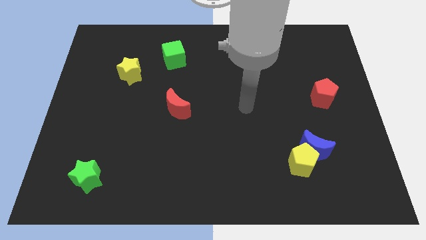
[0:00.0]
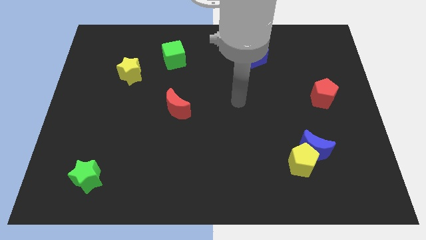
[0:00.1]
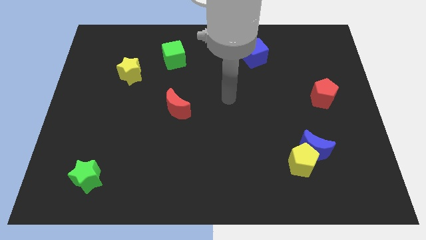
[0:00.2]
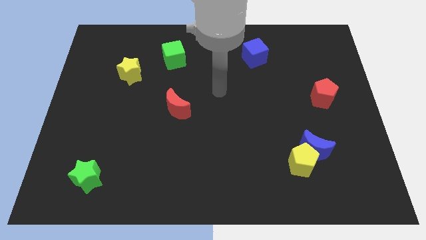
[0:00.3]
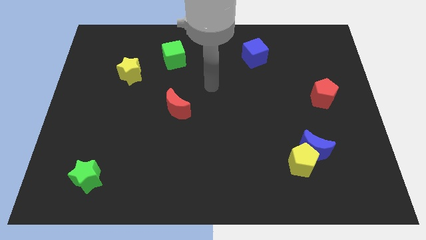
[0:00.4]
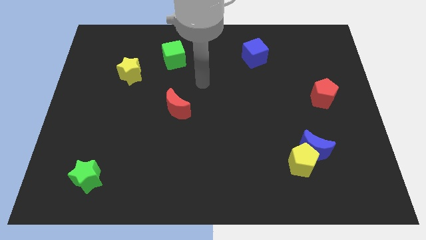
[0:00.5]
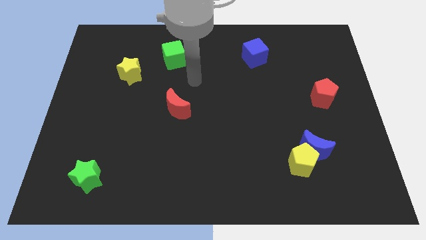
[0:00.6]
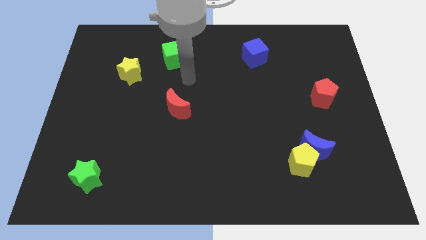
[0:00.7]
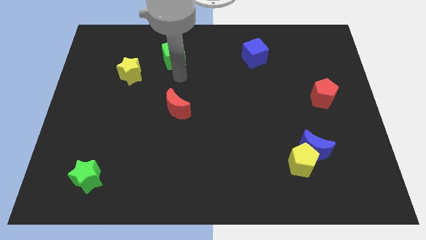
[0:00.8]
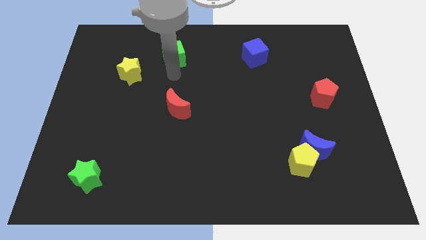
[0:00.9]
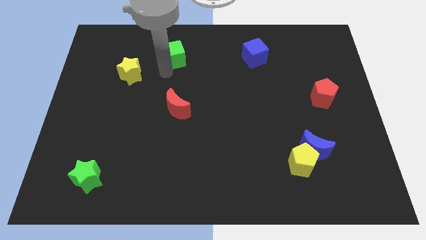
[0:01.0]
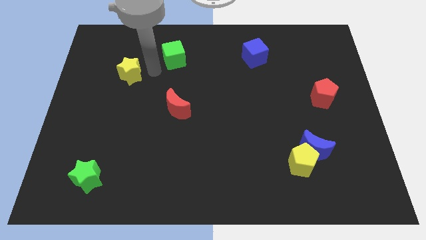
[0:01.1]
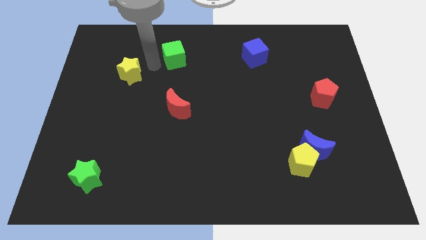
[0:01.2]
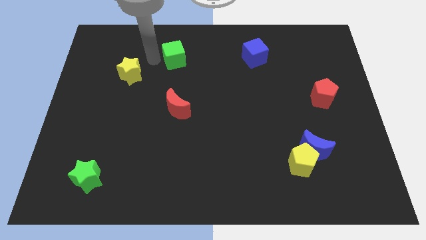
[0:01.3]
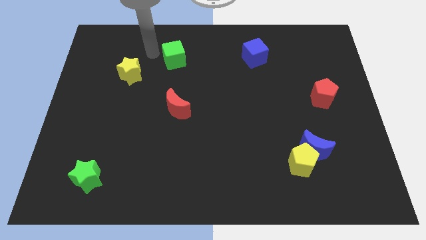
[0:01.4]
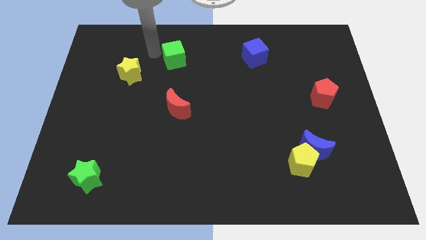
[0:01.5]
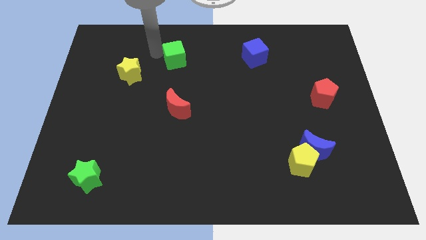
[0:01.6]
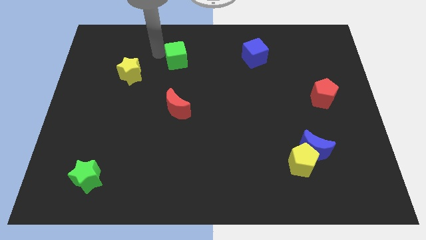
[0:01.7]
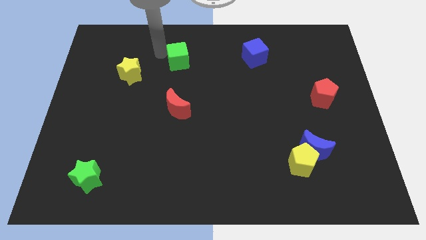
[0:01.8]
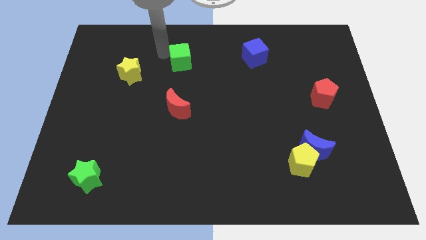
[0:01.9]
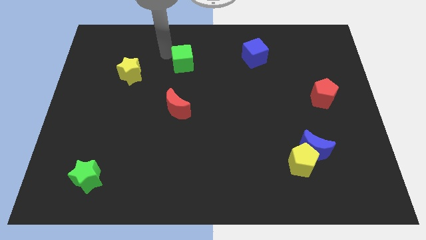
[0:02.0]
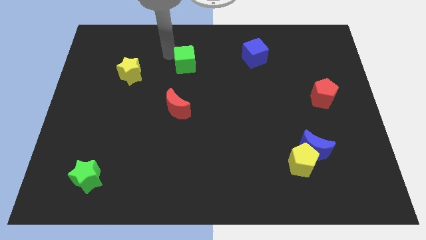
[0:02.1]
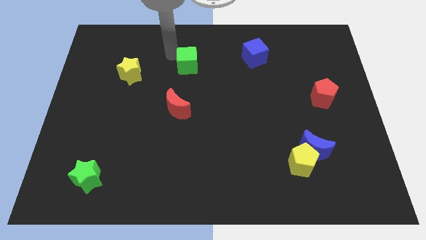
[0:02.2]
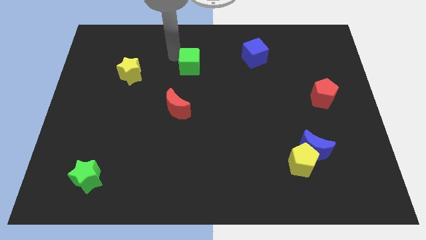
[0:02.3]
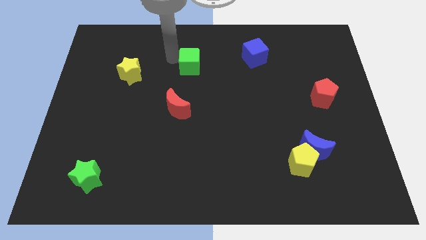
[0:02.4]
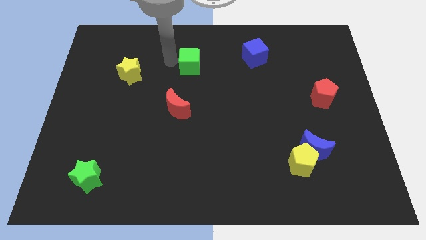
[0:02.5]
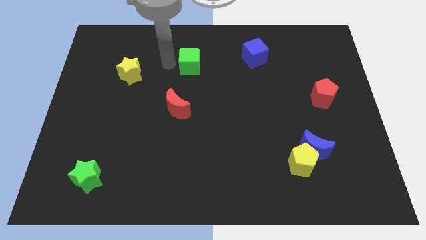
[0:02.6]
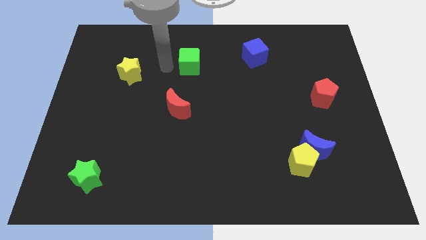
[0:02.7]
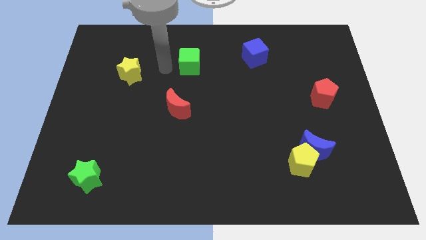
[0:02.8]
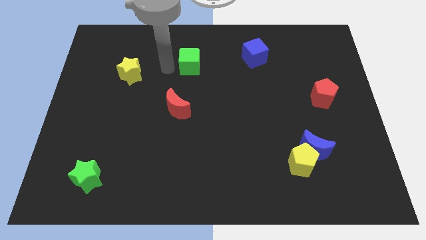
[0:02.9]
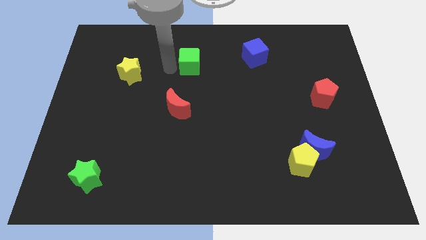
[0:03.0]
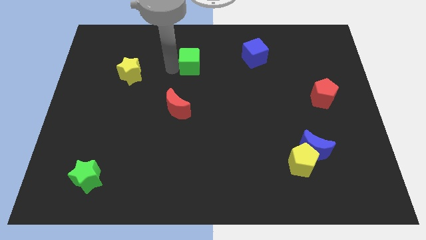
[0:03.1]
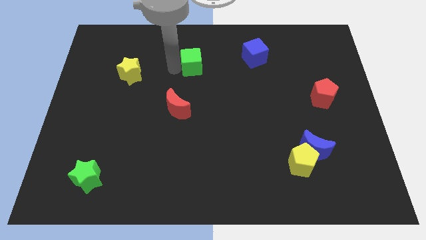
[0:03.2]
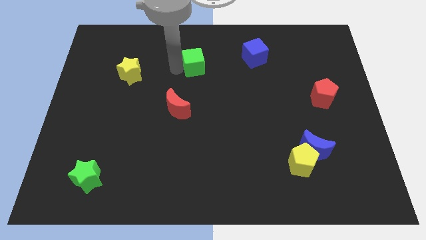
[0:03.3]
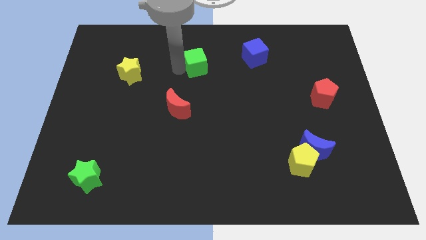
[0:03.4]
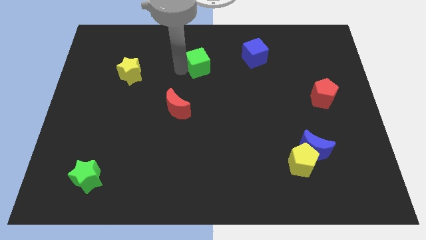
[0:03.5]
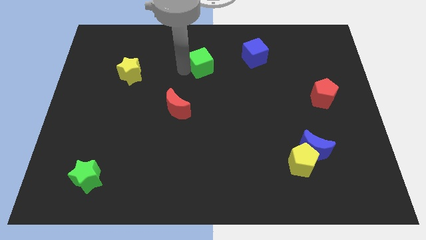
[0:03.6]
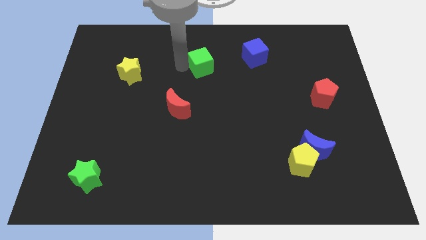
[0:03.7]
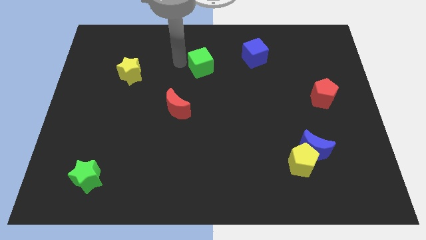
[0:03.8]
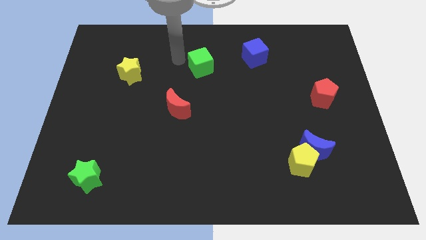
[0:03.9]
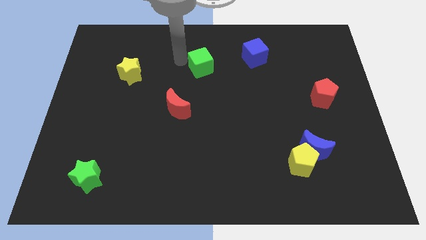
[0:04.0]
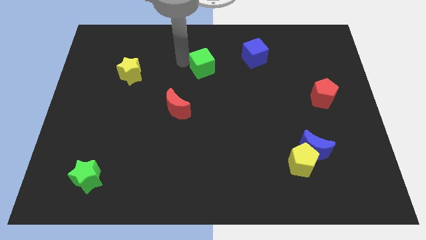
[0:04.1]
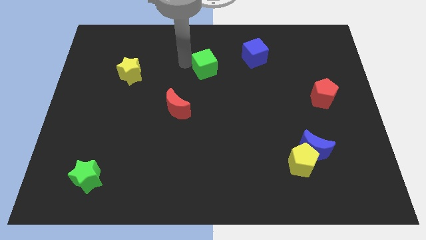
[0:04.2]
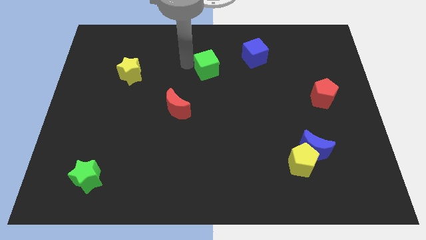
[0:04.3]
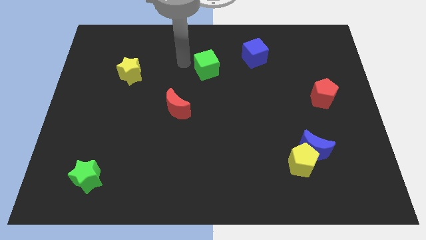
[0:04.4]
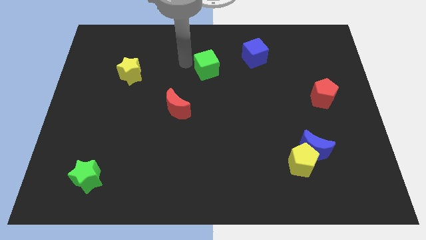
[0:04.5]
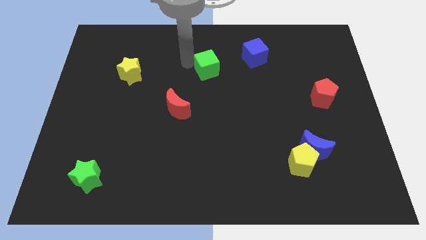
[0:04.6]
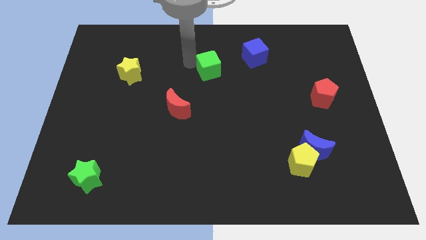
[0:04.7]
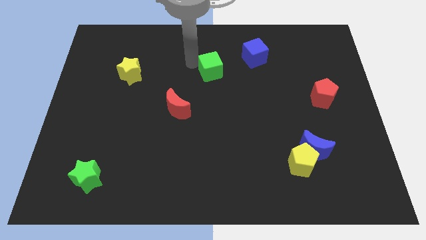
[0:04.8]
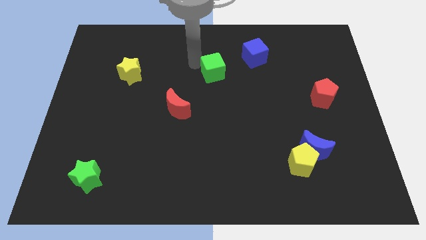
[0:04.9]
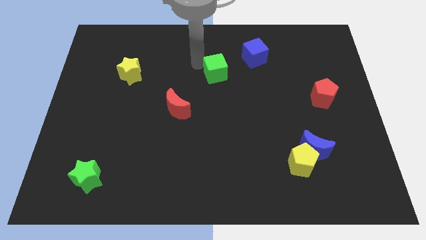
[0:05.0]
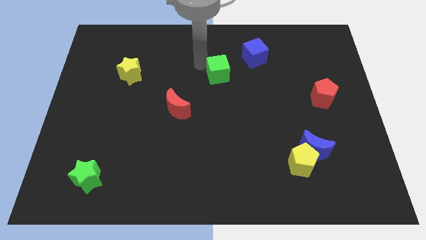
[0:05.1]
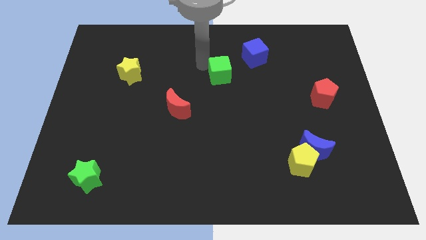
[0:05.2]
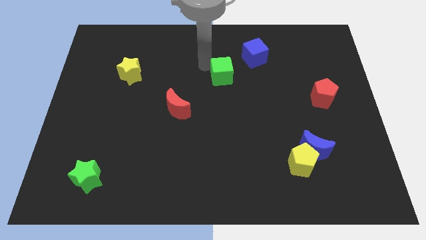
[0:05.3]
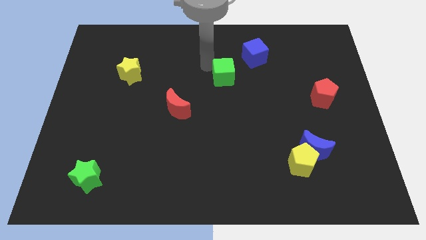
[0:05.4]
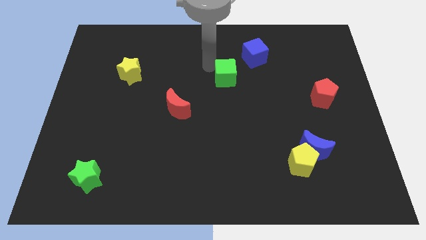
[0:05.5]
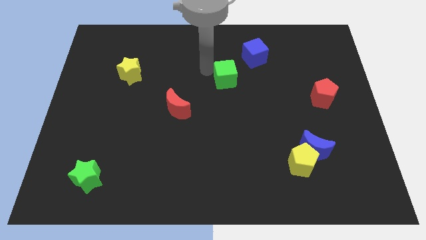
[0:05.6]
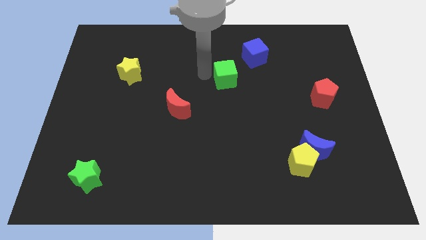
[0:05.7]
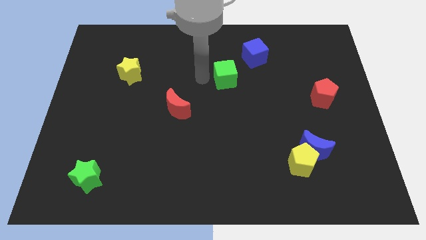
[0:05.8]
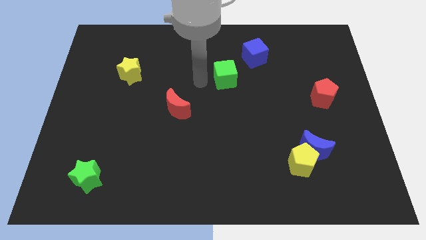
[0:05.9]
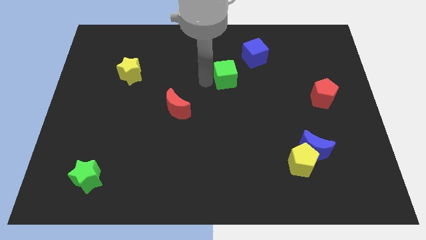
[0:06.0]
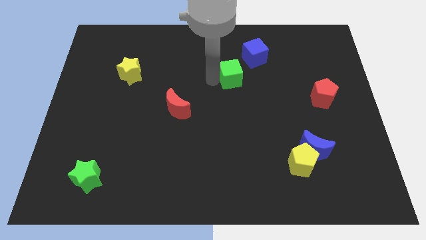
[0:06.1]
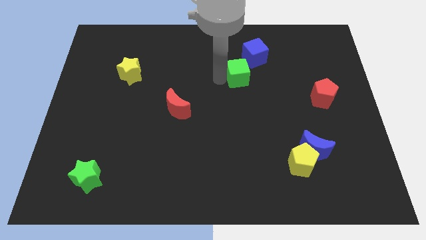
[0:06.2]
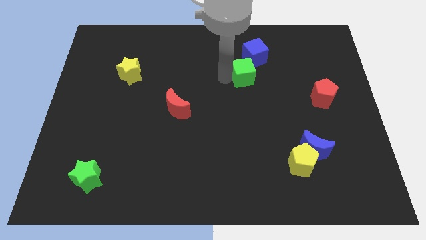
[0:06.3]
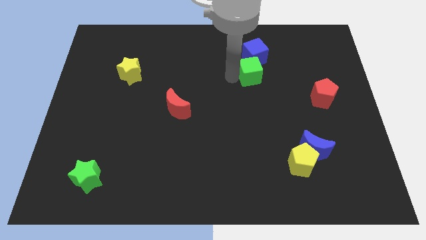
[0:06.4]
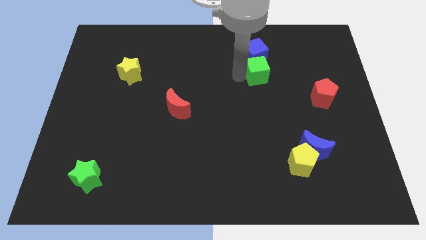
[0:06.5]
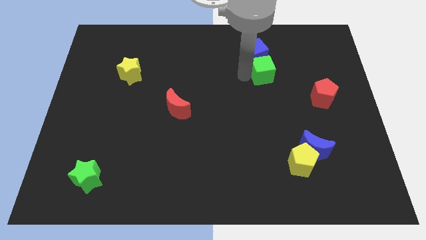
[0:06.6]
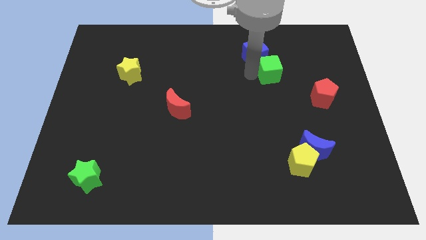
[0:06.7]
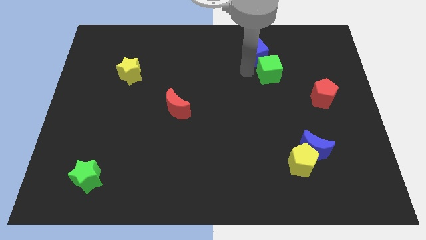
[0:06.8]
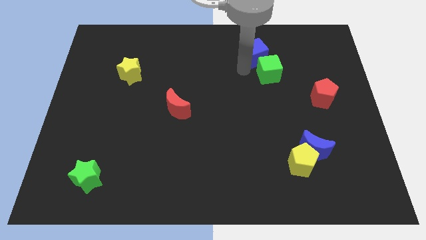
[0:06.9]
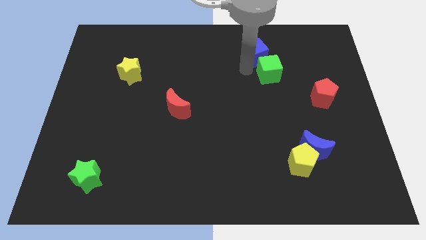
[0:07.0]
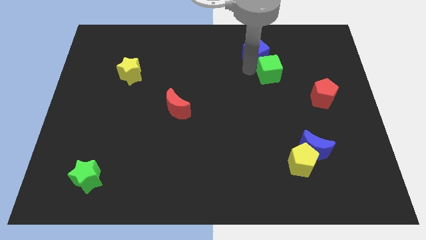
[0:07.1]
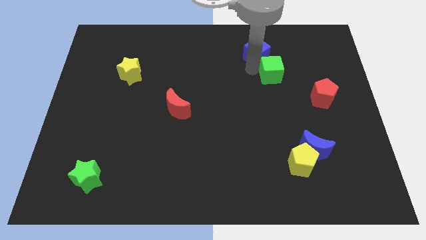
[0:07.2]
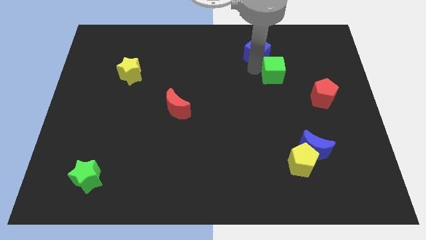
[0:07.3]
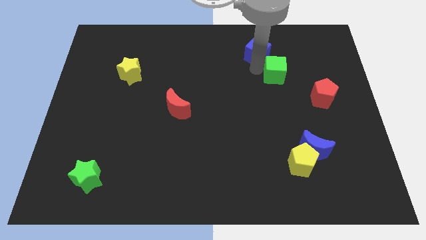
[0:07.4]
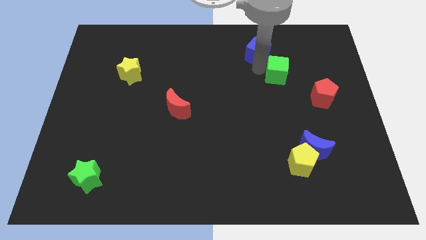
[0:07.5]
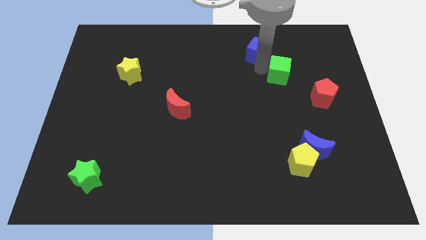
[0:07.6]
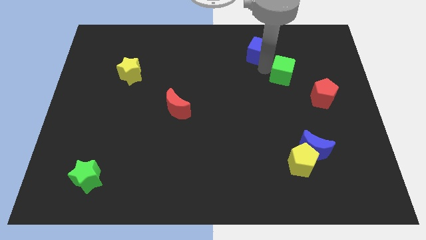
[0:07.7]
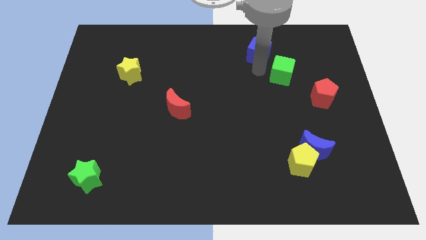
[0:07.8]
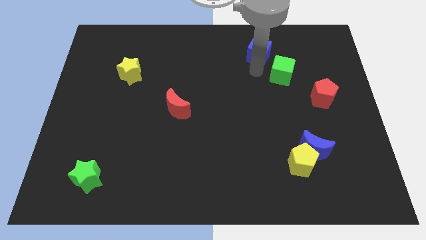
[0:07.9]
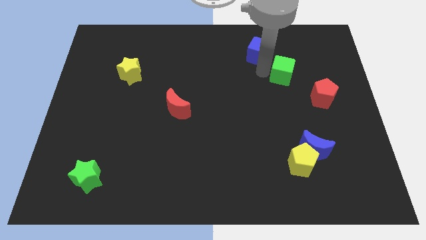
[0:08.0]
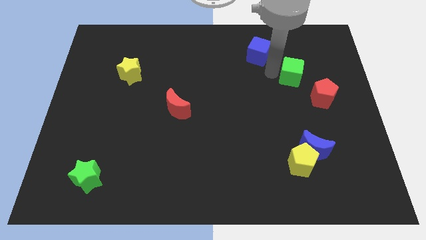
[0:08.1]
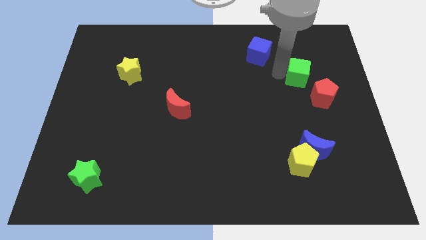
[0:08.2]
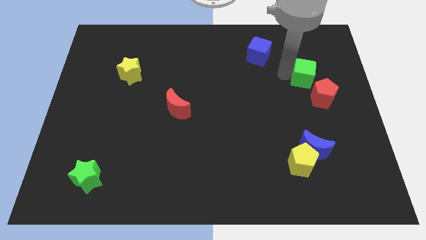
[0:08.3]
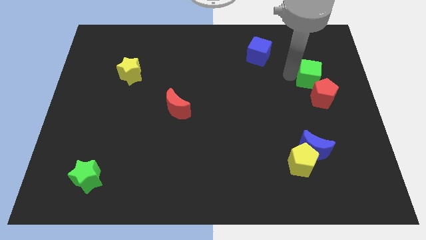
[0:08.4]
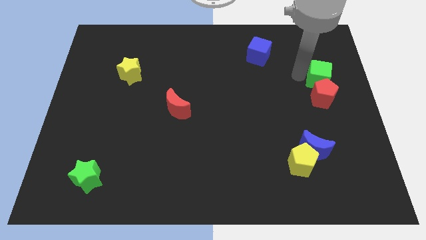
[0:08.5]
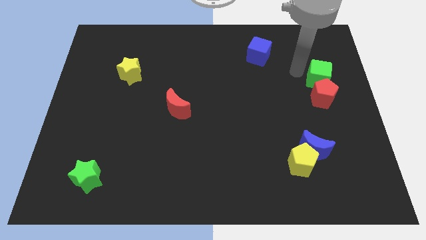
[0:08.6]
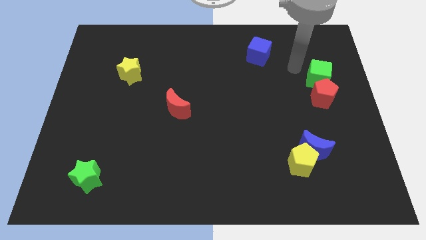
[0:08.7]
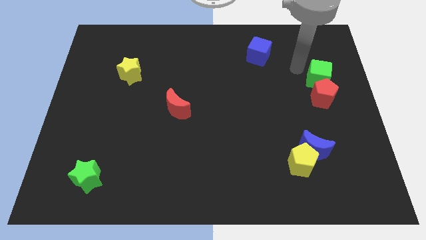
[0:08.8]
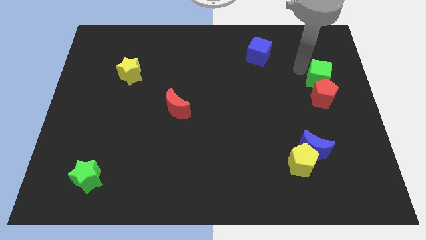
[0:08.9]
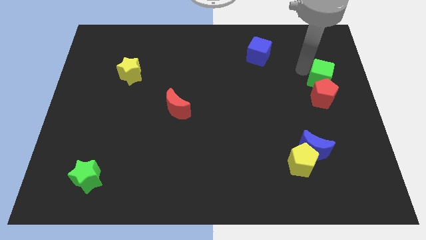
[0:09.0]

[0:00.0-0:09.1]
push the green cube to the right side of the board
